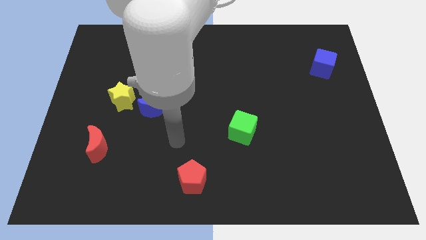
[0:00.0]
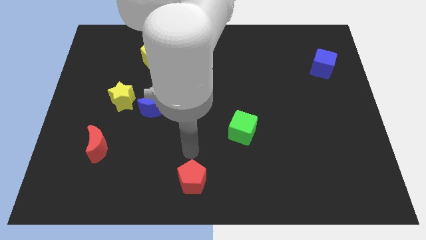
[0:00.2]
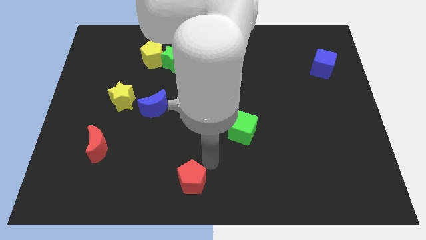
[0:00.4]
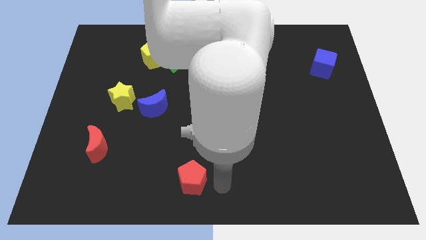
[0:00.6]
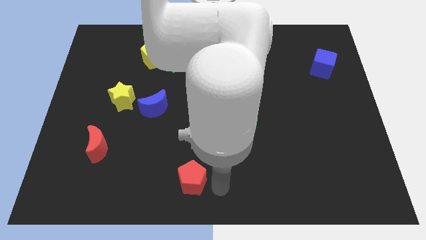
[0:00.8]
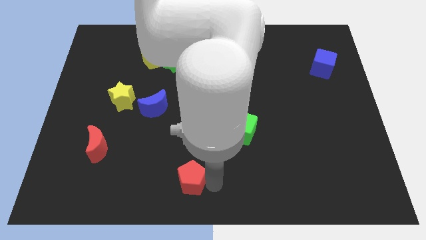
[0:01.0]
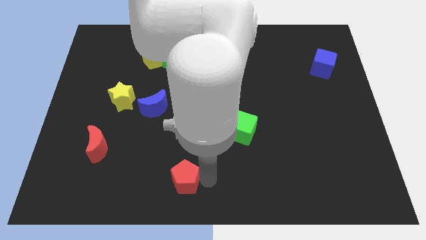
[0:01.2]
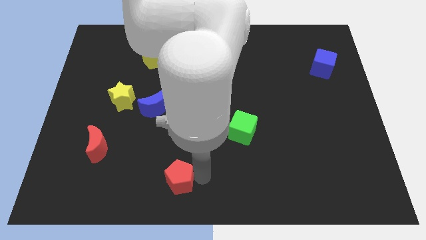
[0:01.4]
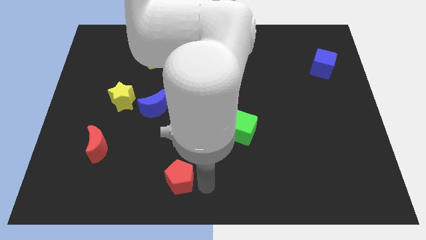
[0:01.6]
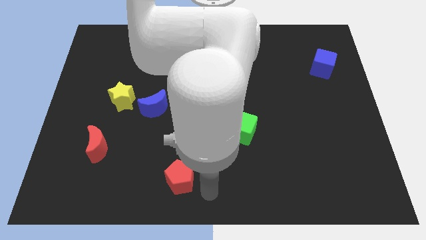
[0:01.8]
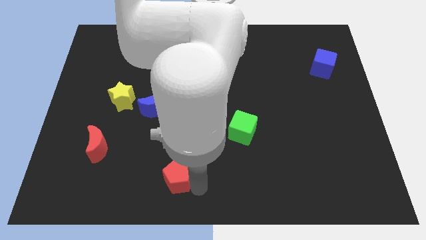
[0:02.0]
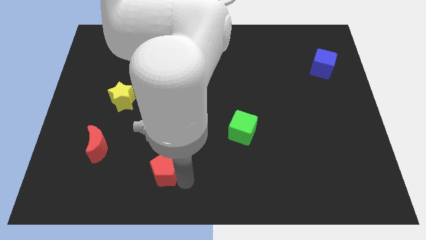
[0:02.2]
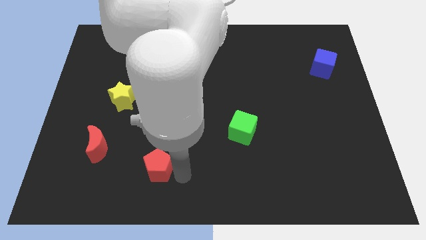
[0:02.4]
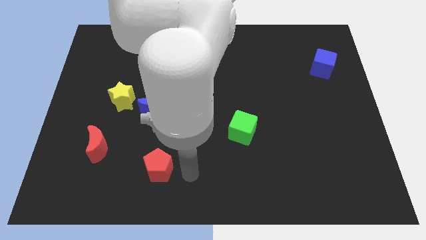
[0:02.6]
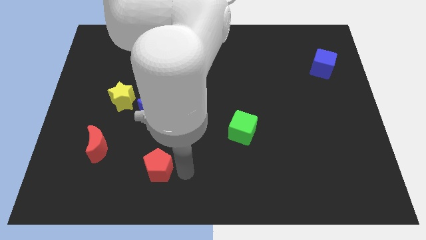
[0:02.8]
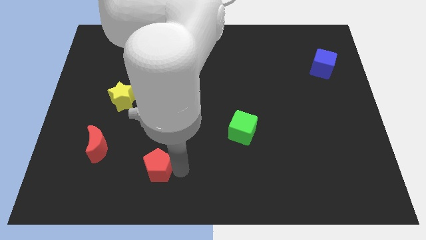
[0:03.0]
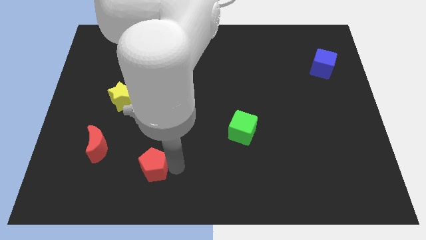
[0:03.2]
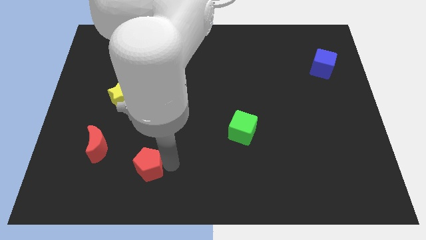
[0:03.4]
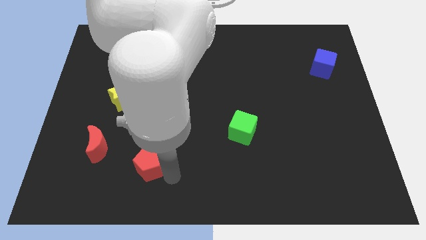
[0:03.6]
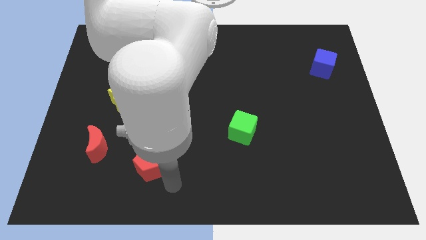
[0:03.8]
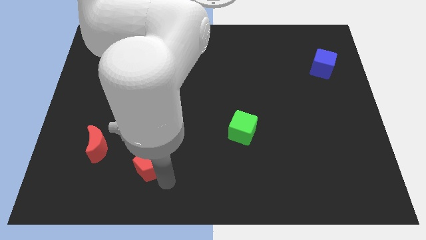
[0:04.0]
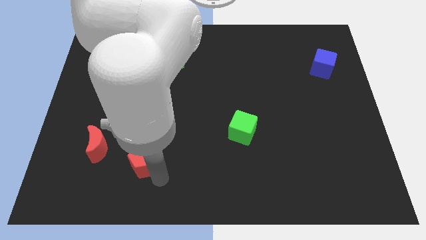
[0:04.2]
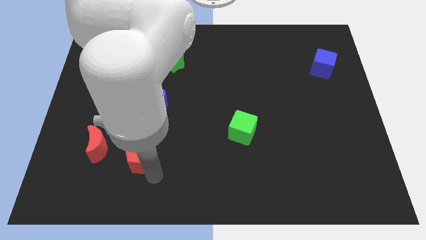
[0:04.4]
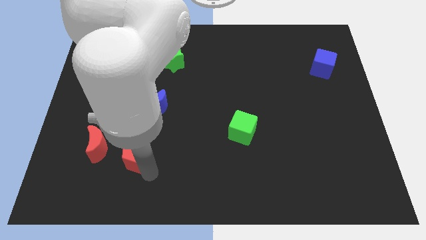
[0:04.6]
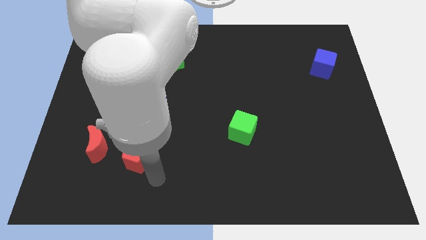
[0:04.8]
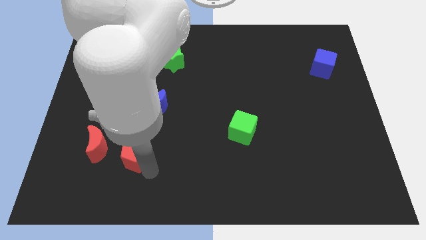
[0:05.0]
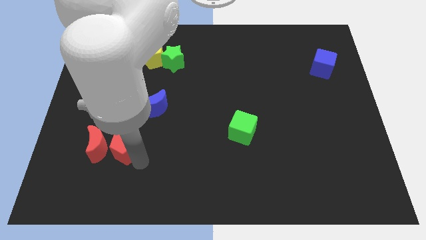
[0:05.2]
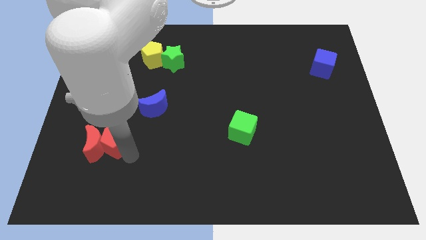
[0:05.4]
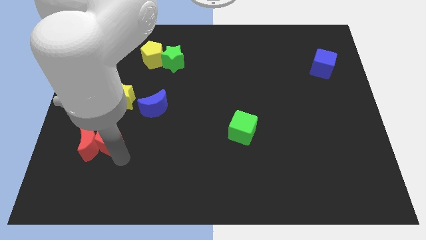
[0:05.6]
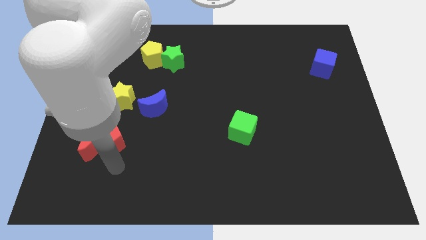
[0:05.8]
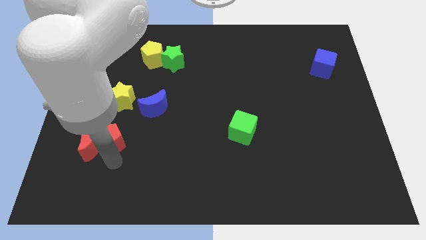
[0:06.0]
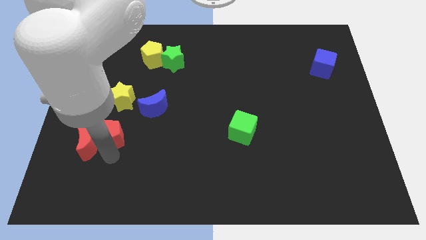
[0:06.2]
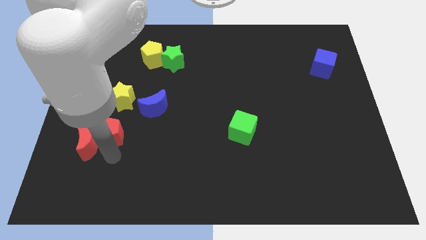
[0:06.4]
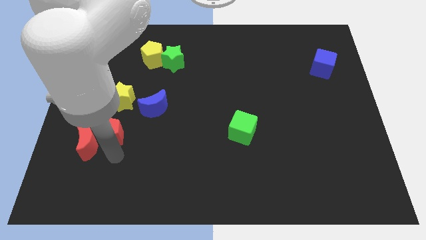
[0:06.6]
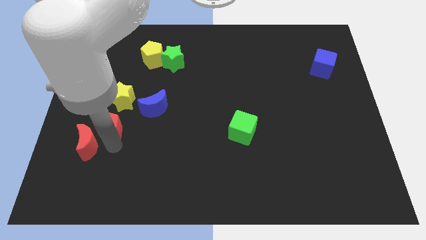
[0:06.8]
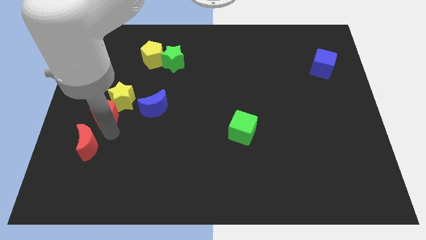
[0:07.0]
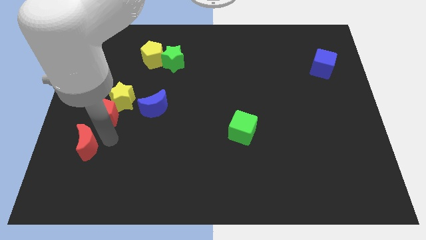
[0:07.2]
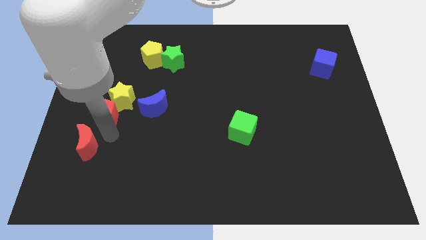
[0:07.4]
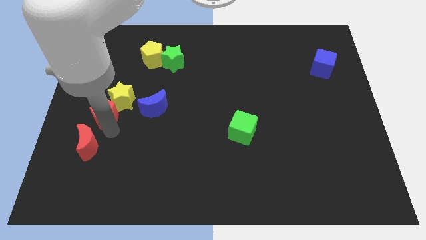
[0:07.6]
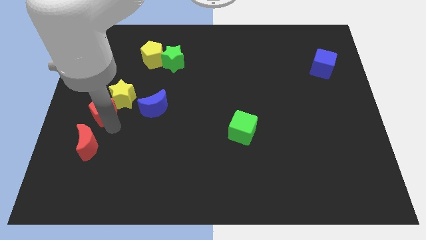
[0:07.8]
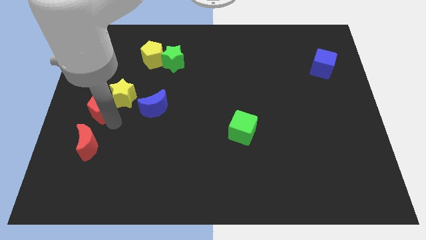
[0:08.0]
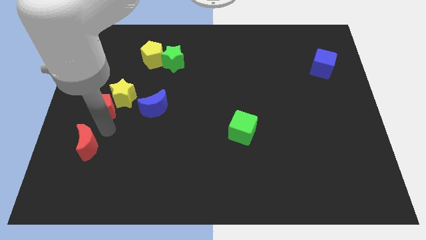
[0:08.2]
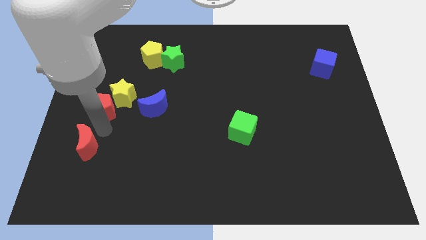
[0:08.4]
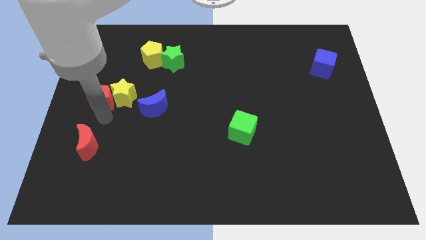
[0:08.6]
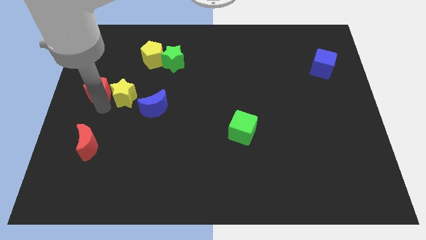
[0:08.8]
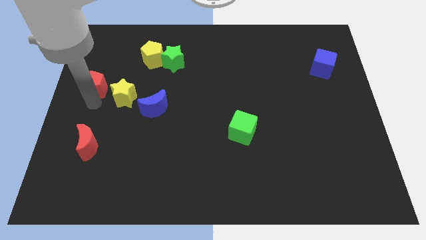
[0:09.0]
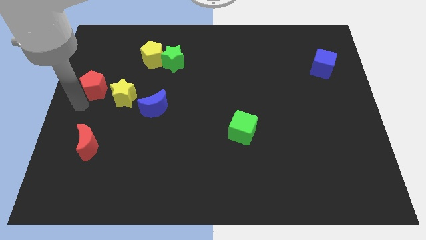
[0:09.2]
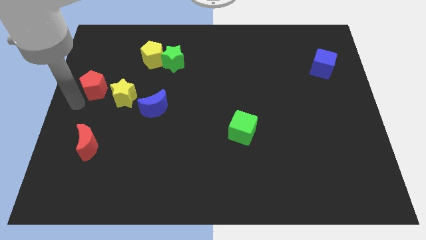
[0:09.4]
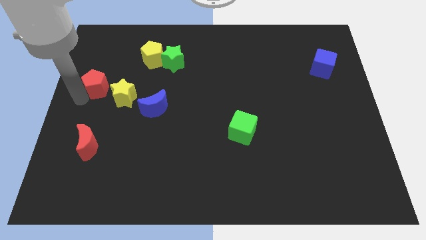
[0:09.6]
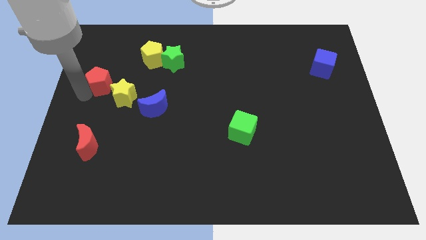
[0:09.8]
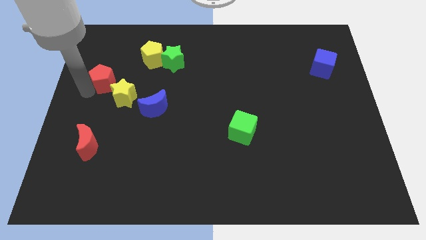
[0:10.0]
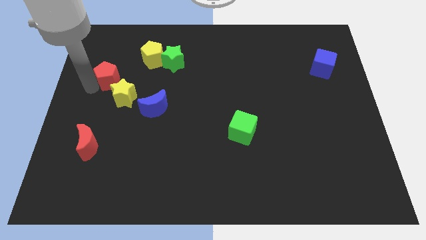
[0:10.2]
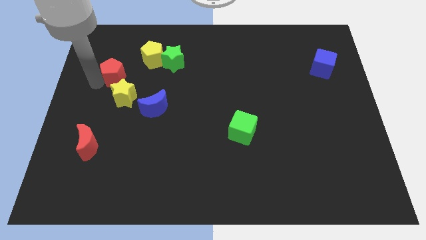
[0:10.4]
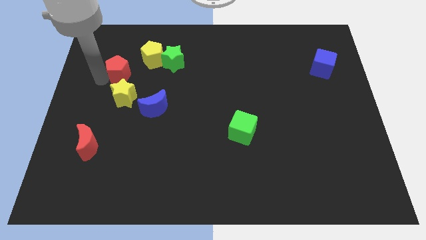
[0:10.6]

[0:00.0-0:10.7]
slide the red pentagon to the left of the green star

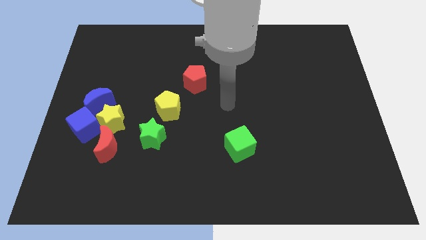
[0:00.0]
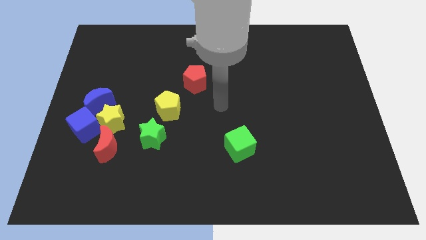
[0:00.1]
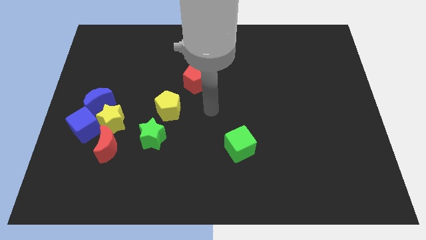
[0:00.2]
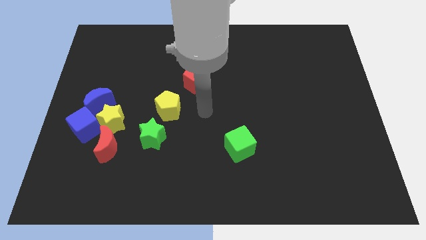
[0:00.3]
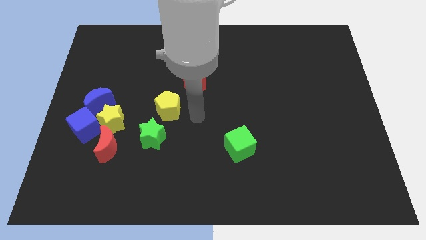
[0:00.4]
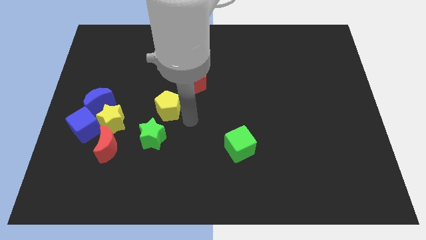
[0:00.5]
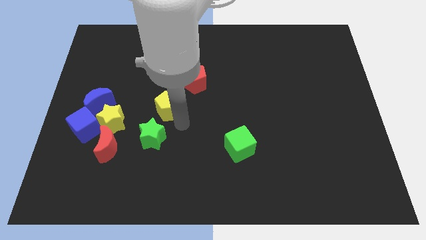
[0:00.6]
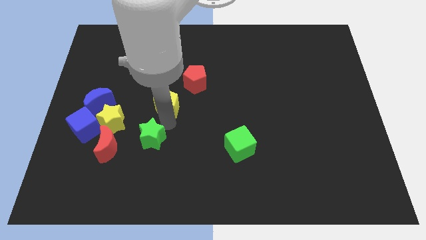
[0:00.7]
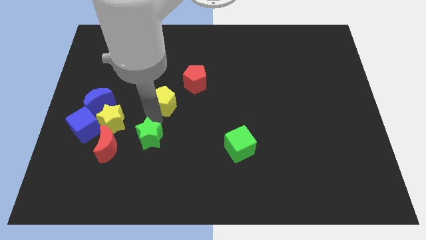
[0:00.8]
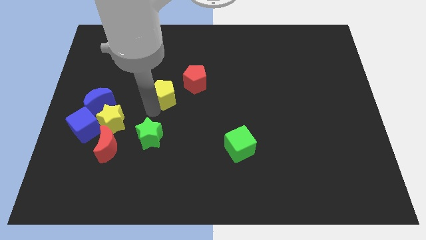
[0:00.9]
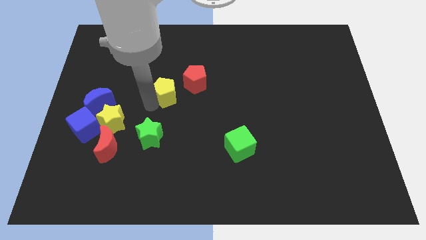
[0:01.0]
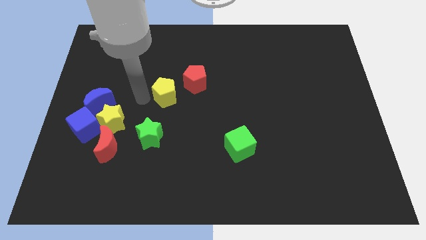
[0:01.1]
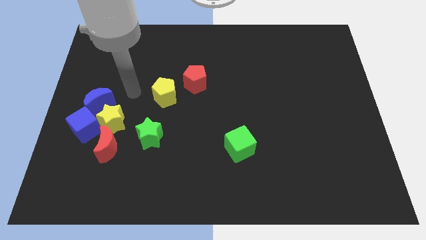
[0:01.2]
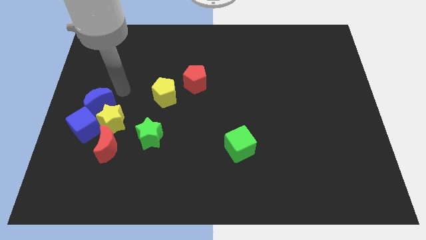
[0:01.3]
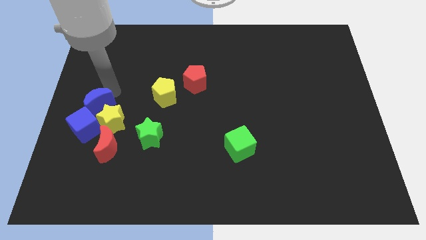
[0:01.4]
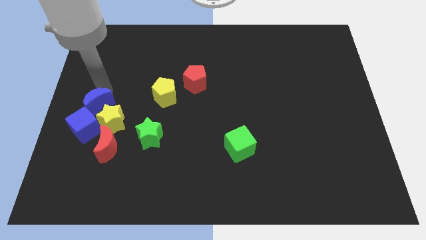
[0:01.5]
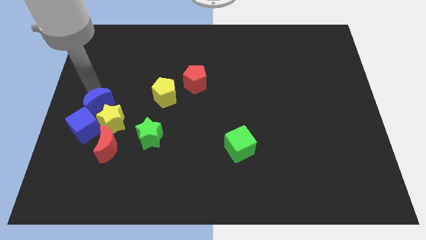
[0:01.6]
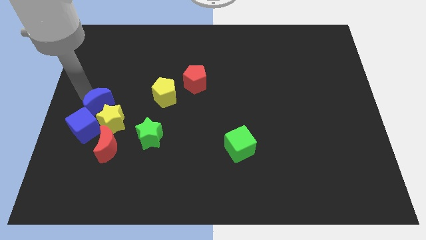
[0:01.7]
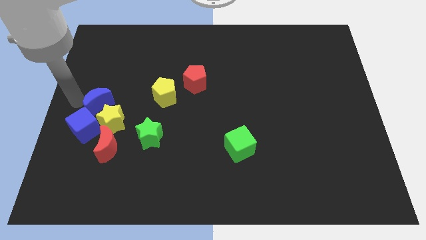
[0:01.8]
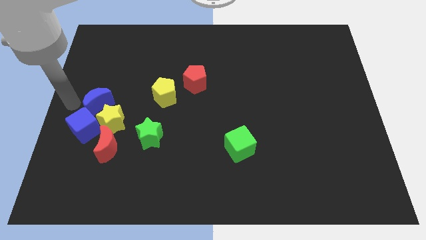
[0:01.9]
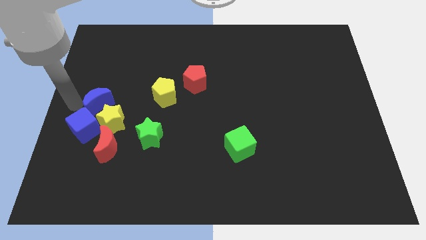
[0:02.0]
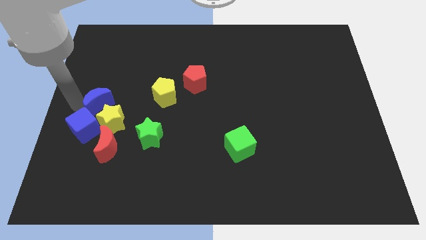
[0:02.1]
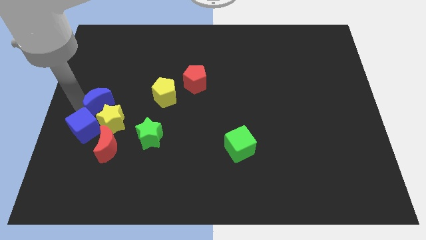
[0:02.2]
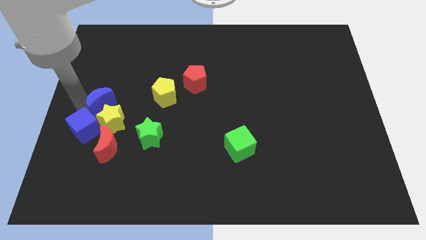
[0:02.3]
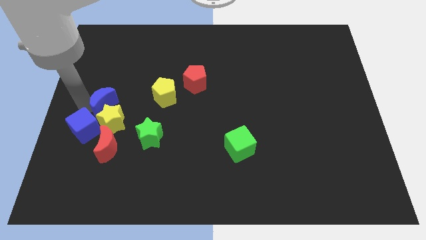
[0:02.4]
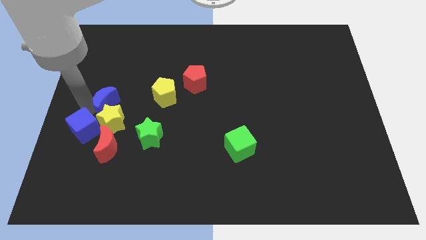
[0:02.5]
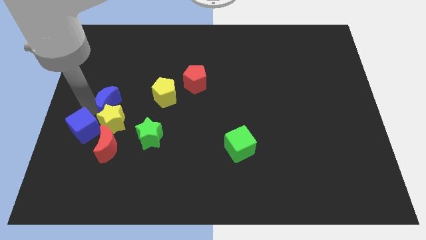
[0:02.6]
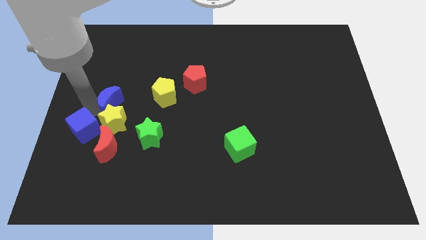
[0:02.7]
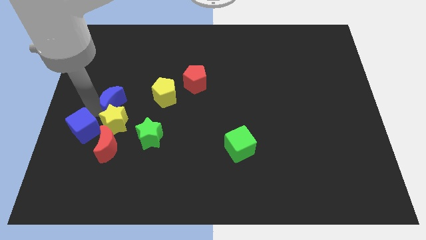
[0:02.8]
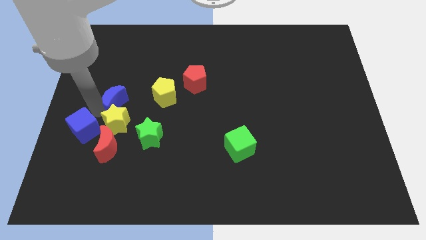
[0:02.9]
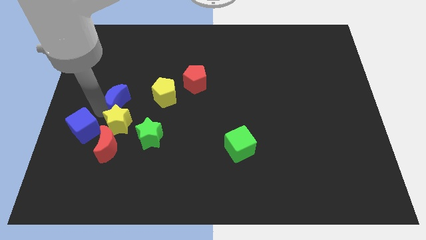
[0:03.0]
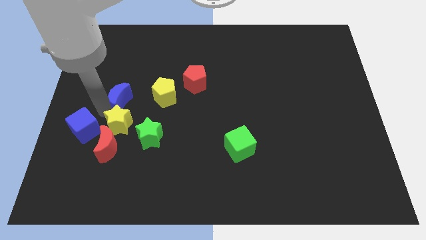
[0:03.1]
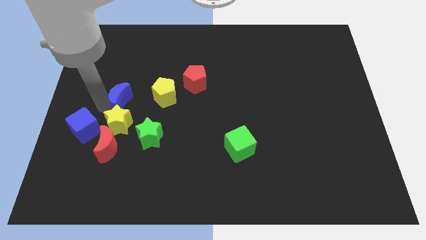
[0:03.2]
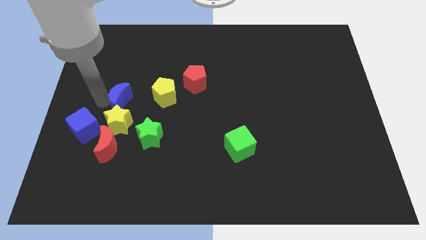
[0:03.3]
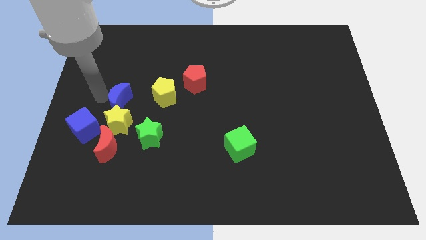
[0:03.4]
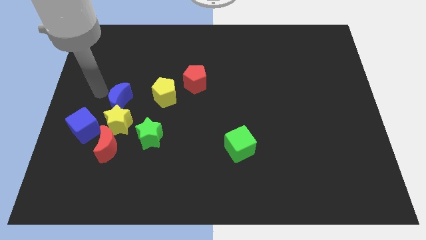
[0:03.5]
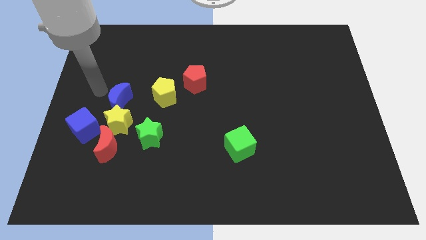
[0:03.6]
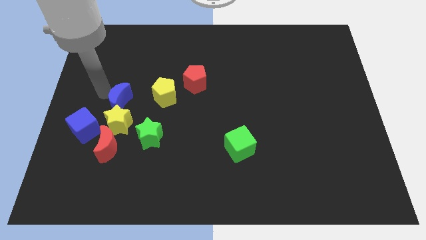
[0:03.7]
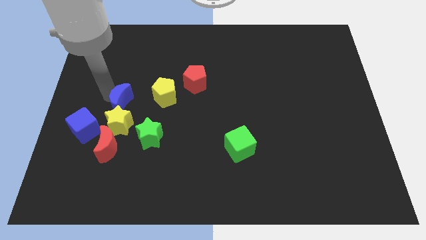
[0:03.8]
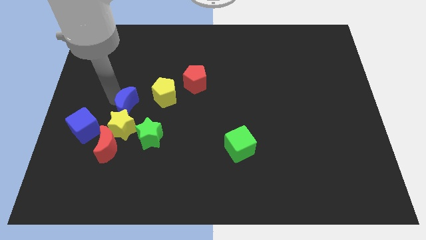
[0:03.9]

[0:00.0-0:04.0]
slide the blue moon to the bottom left of the yellow pentagon
